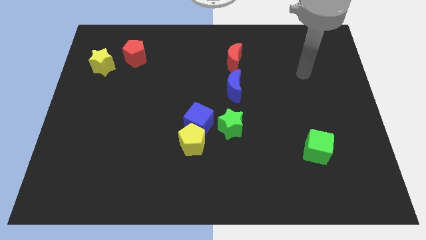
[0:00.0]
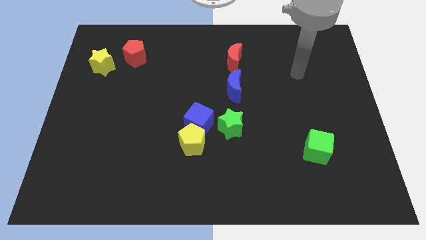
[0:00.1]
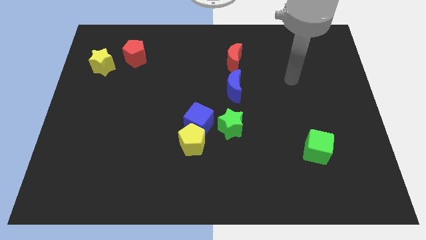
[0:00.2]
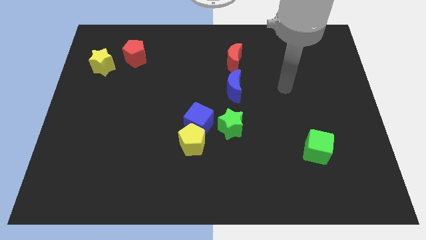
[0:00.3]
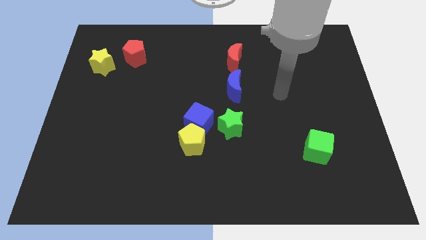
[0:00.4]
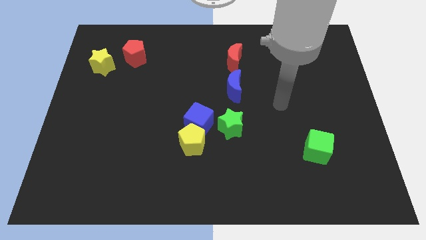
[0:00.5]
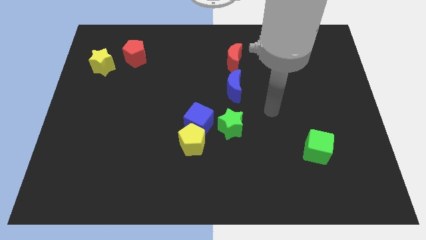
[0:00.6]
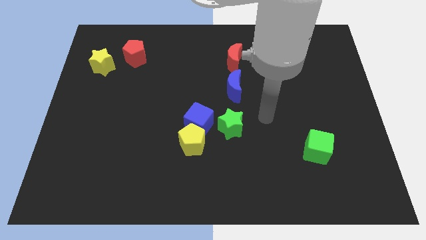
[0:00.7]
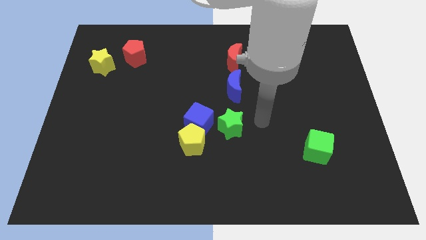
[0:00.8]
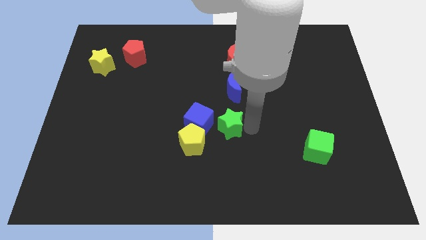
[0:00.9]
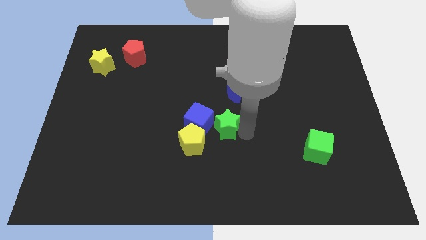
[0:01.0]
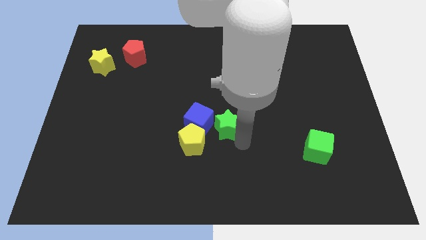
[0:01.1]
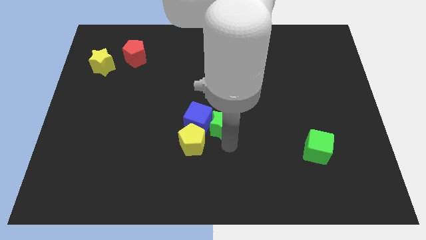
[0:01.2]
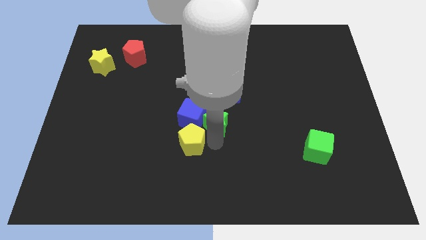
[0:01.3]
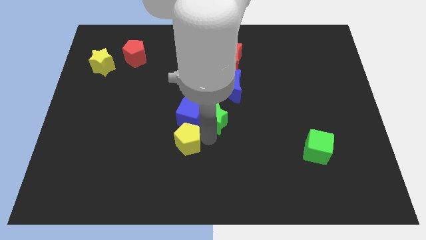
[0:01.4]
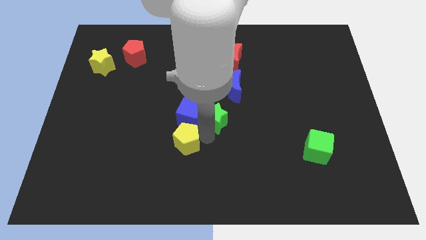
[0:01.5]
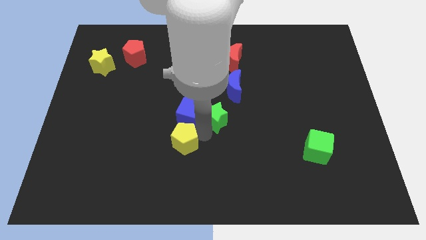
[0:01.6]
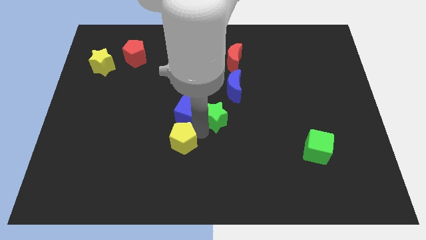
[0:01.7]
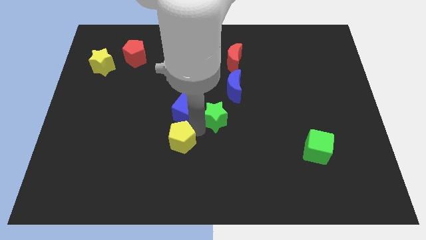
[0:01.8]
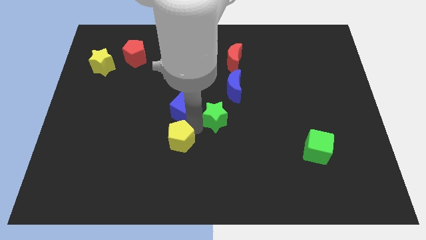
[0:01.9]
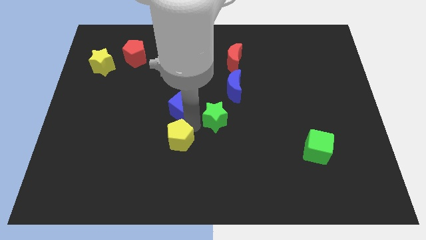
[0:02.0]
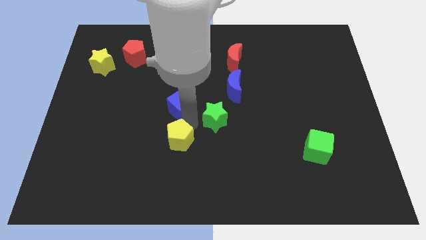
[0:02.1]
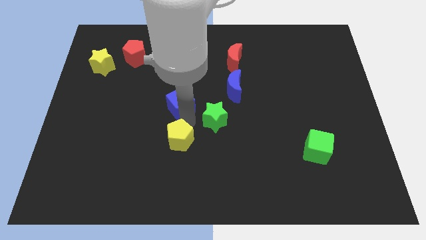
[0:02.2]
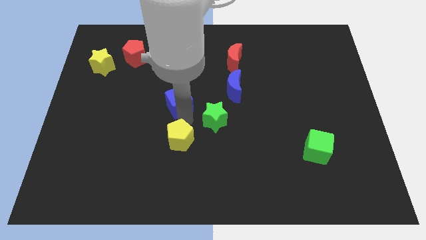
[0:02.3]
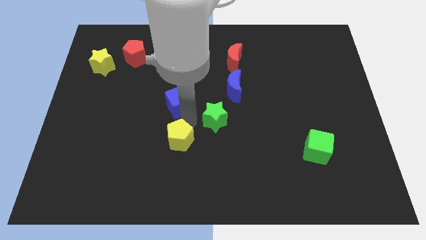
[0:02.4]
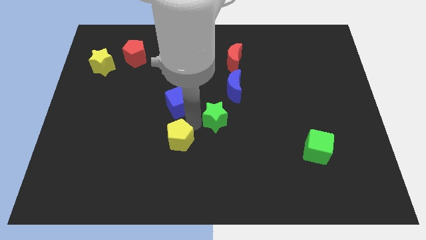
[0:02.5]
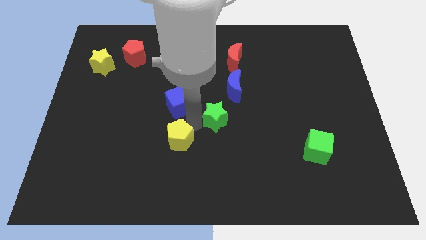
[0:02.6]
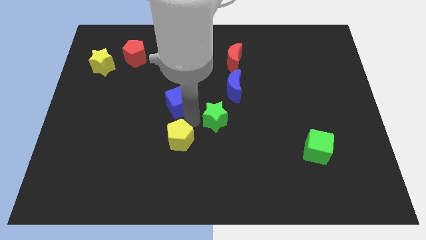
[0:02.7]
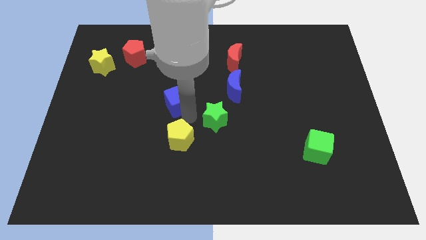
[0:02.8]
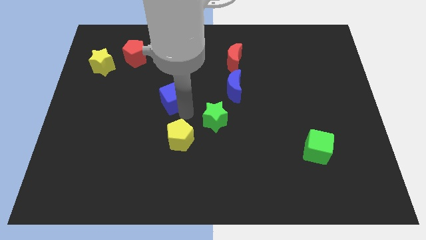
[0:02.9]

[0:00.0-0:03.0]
move the blue cube away from the yellow pentagon and green star

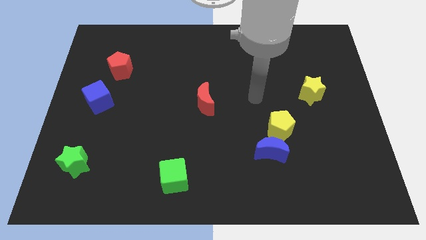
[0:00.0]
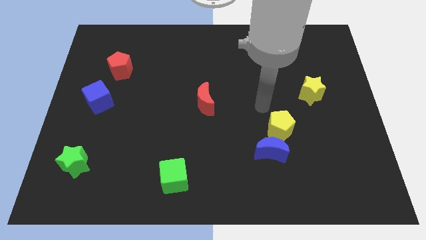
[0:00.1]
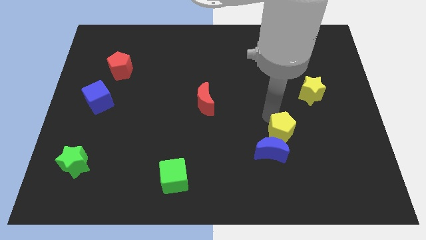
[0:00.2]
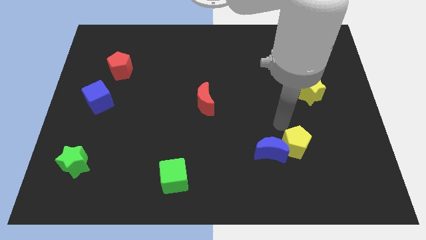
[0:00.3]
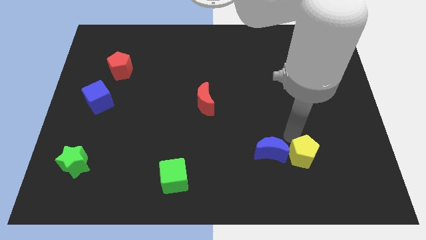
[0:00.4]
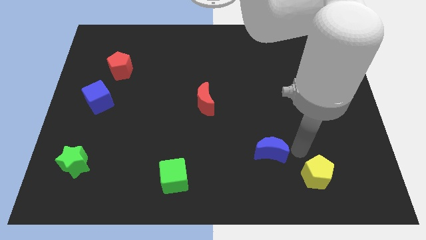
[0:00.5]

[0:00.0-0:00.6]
pull the blue moon apart from the yellow pentagon

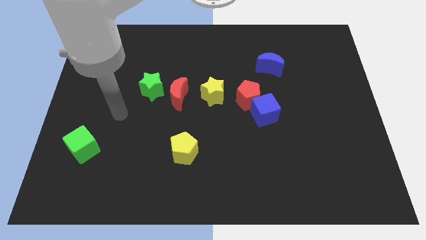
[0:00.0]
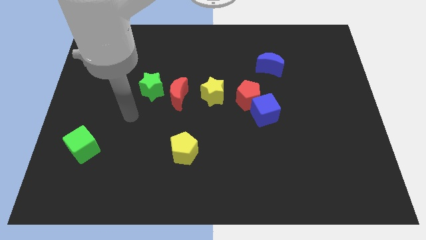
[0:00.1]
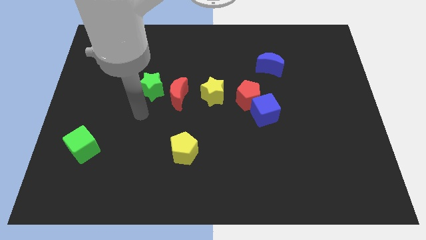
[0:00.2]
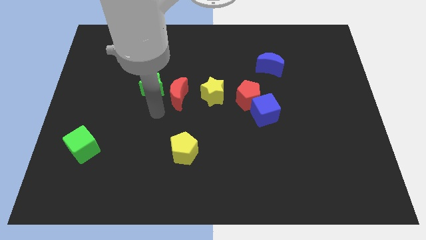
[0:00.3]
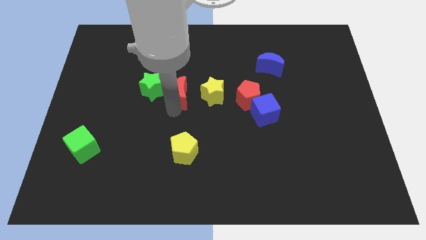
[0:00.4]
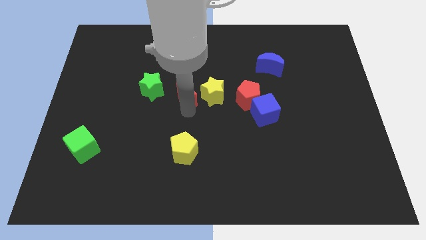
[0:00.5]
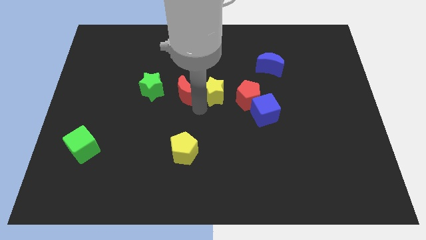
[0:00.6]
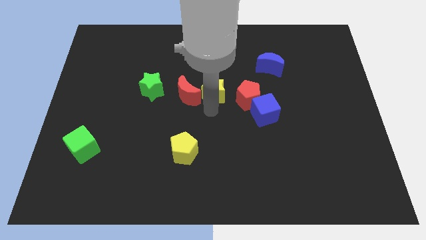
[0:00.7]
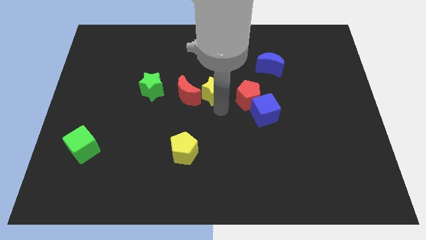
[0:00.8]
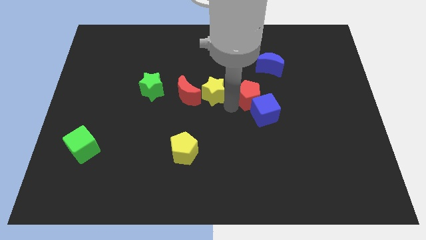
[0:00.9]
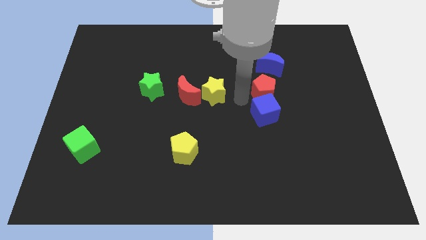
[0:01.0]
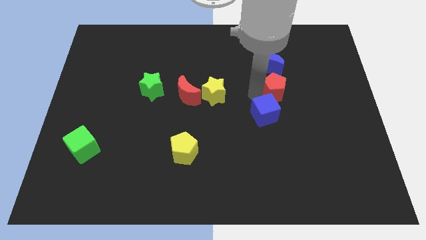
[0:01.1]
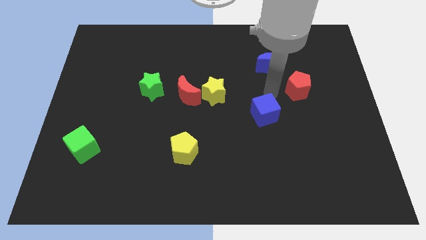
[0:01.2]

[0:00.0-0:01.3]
separate the blue cube from the red pentagon

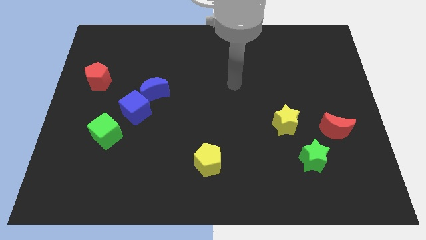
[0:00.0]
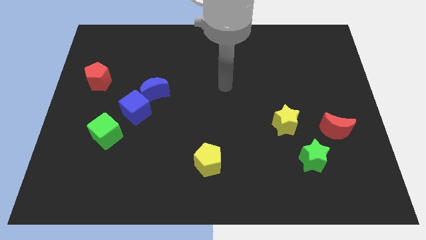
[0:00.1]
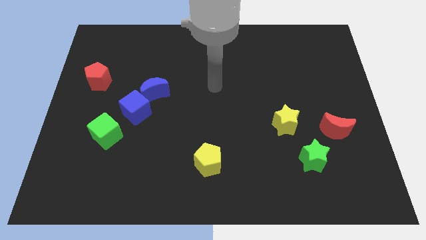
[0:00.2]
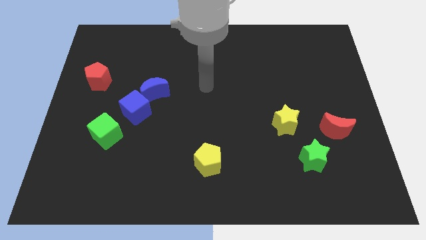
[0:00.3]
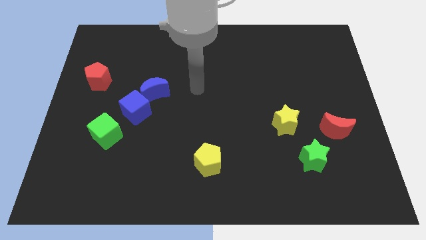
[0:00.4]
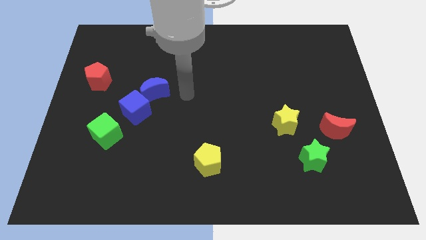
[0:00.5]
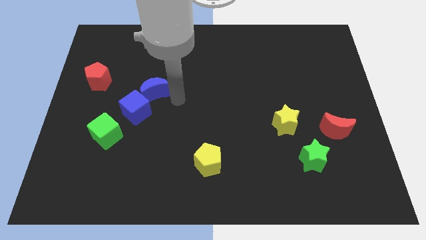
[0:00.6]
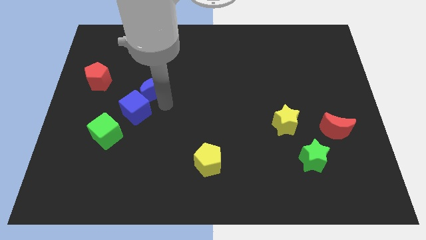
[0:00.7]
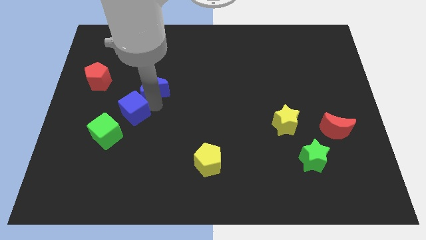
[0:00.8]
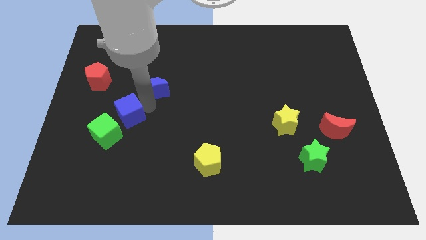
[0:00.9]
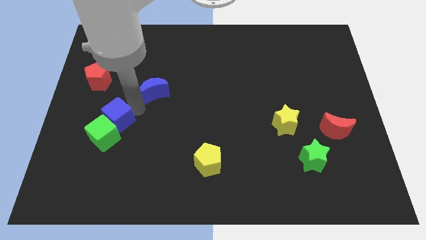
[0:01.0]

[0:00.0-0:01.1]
move the blue moon away from the blue cube

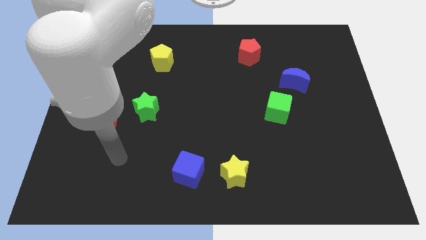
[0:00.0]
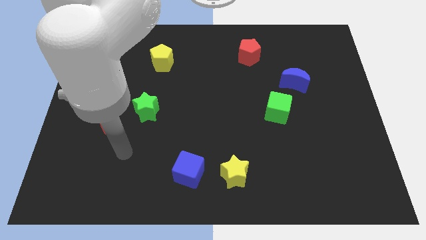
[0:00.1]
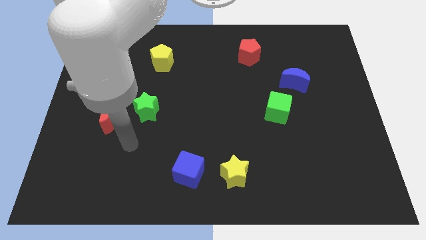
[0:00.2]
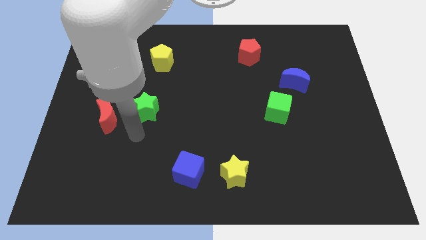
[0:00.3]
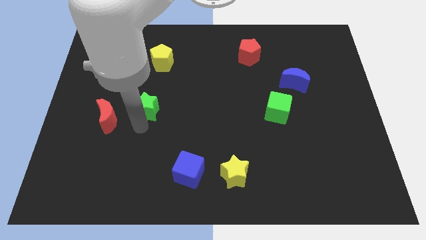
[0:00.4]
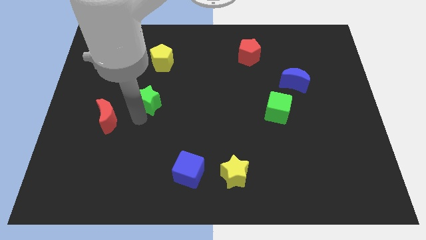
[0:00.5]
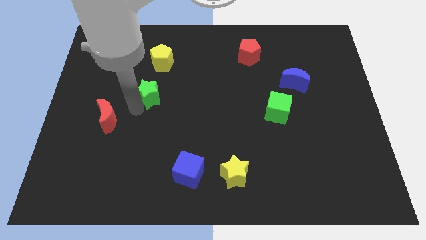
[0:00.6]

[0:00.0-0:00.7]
move the red moon away from the green star

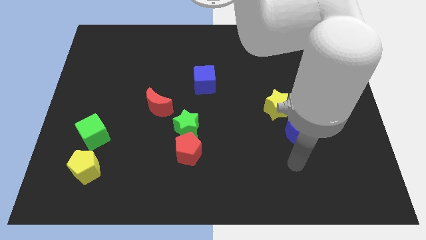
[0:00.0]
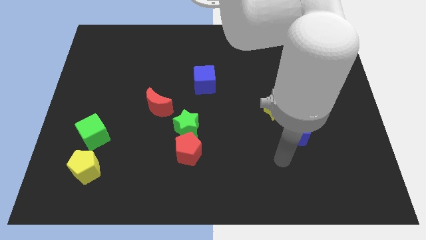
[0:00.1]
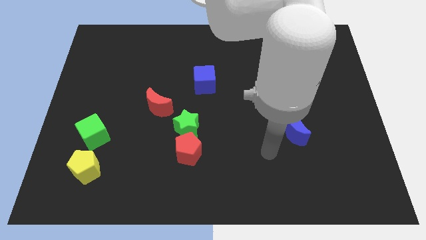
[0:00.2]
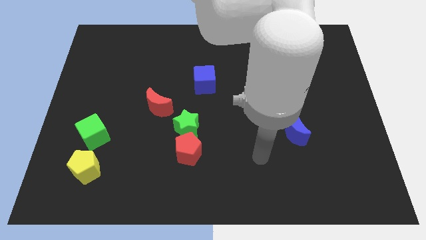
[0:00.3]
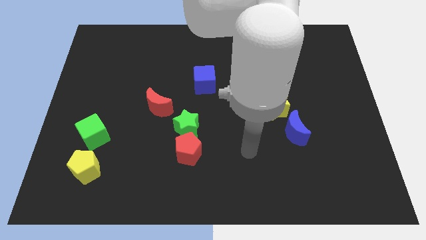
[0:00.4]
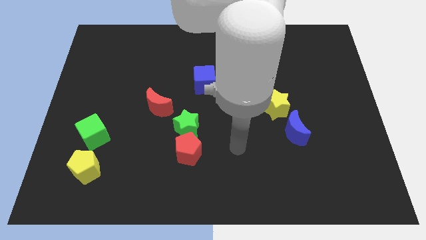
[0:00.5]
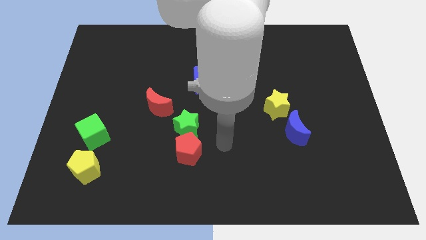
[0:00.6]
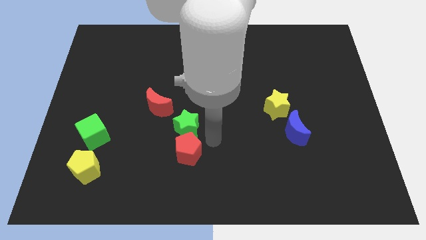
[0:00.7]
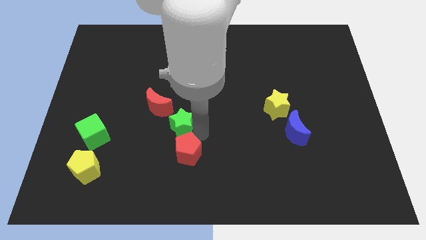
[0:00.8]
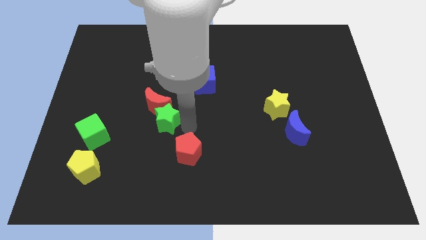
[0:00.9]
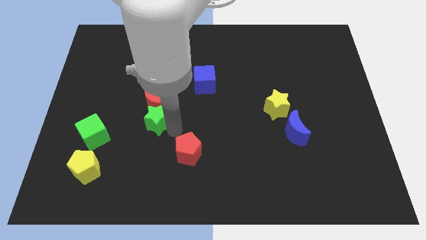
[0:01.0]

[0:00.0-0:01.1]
move the red pentagon away from the green star

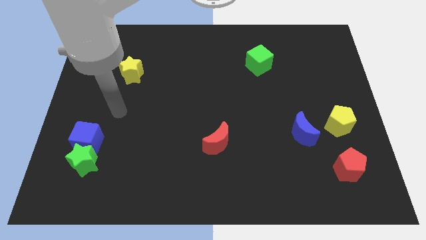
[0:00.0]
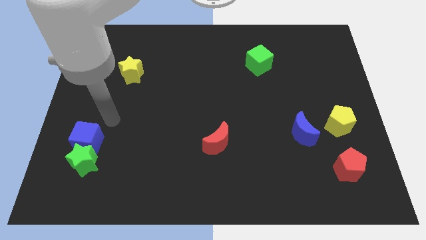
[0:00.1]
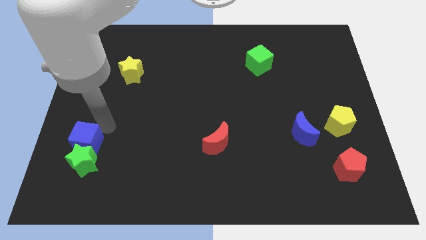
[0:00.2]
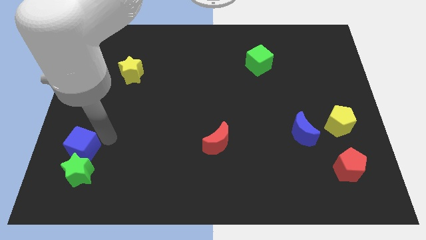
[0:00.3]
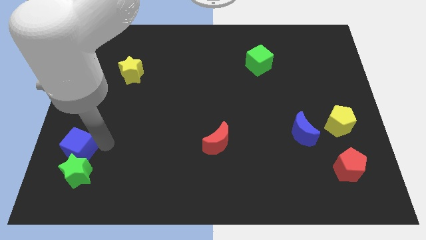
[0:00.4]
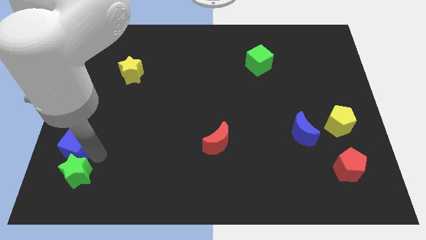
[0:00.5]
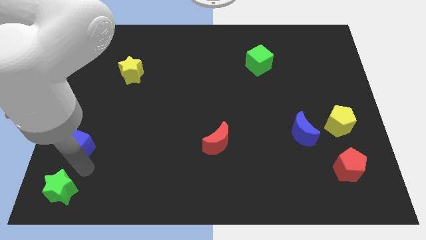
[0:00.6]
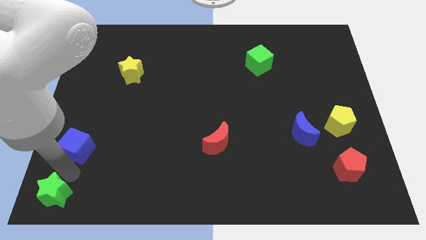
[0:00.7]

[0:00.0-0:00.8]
move the blue cube away from the green star

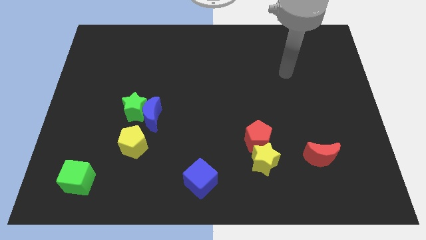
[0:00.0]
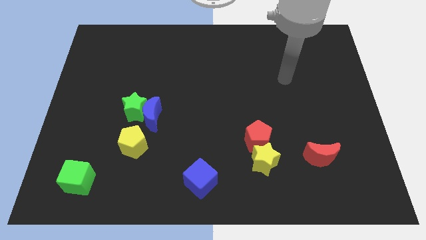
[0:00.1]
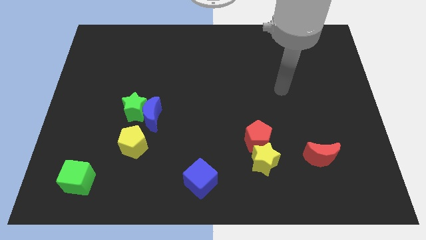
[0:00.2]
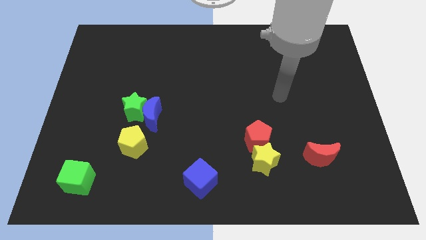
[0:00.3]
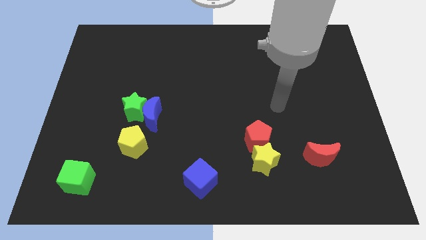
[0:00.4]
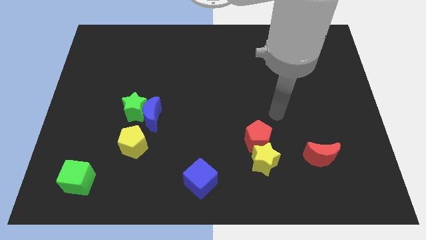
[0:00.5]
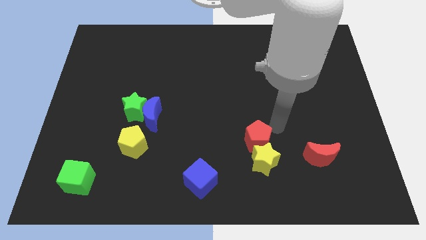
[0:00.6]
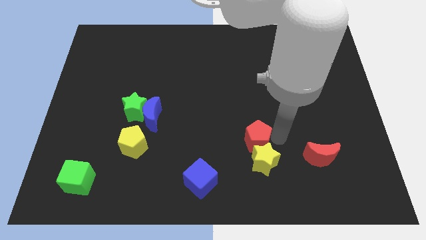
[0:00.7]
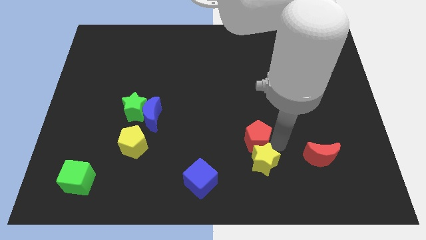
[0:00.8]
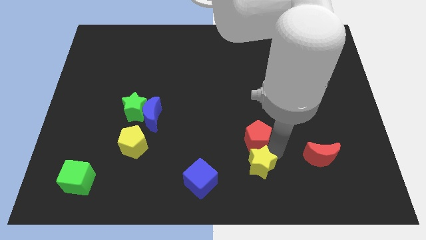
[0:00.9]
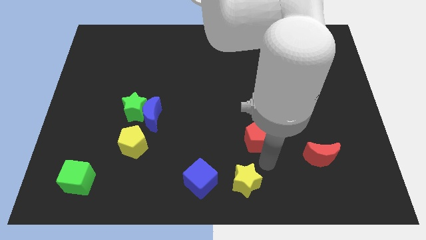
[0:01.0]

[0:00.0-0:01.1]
pull the red pentagon apart from the yellow star
